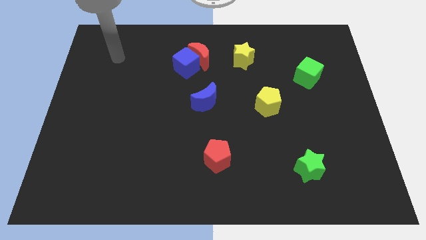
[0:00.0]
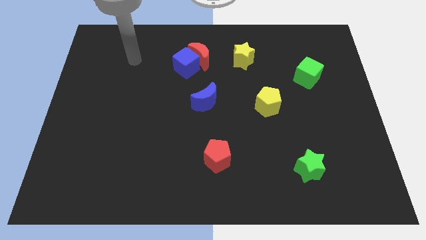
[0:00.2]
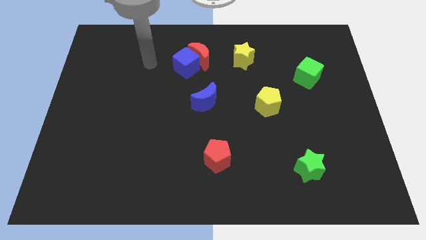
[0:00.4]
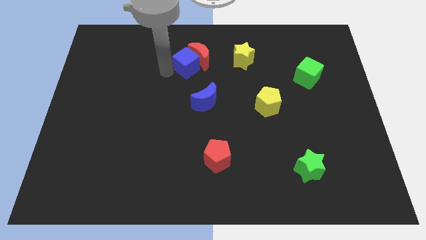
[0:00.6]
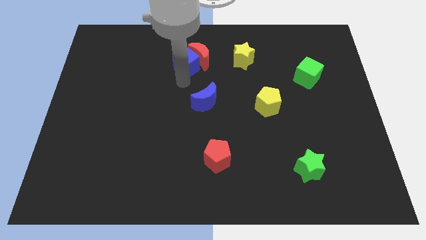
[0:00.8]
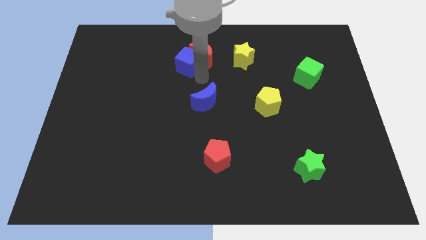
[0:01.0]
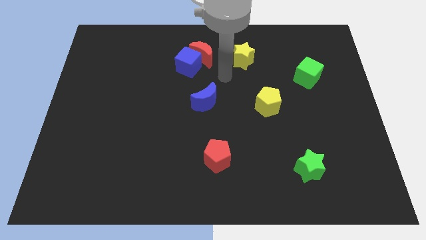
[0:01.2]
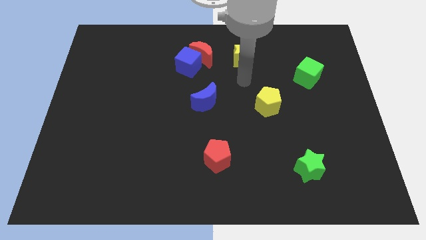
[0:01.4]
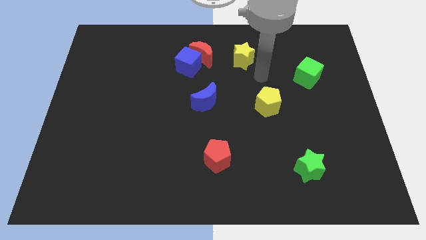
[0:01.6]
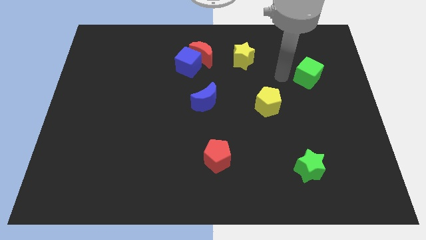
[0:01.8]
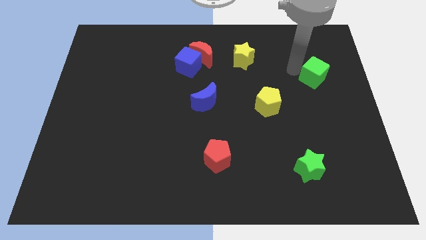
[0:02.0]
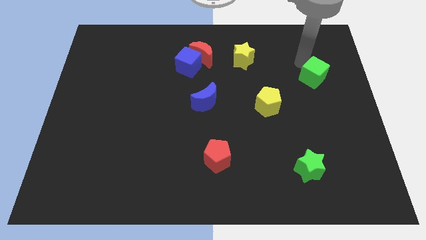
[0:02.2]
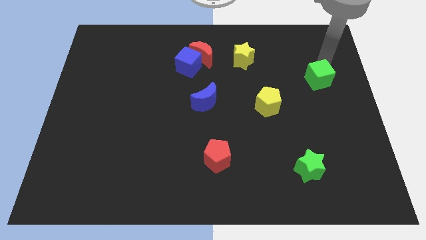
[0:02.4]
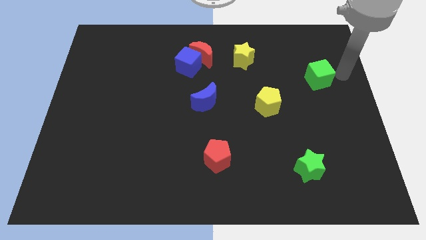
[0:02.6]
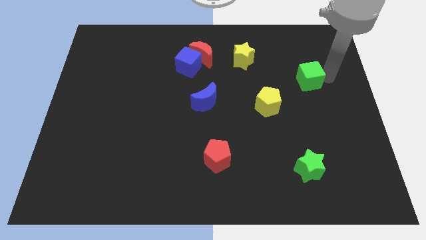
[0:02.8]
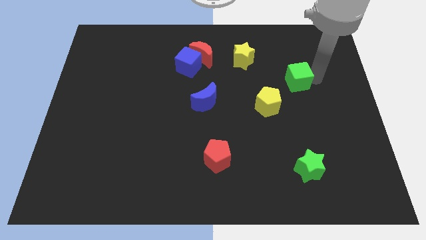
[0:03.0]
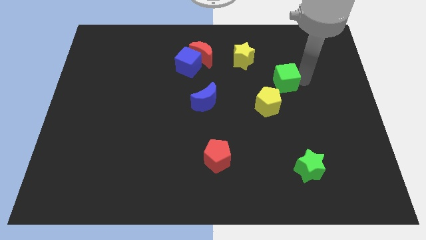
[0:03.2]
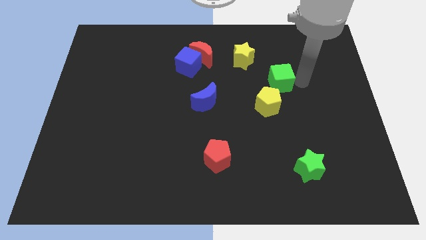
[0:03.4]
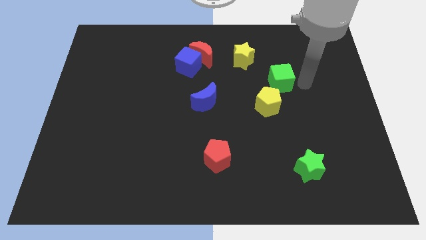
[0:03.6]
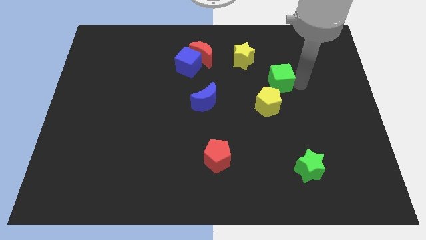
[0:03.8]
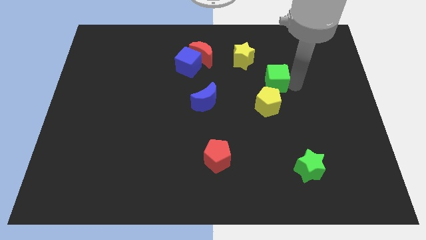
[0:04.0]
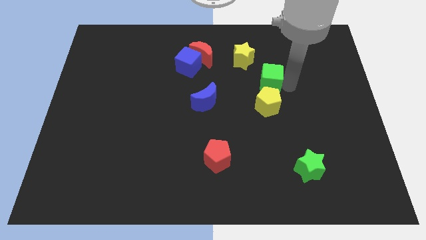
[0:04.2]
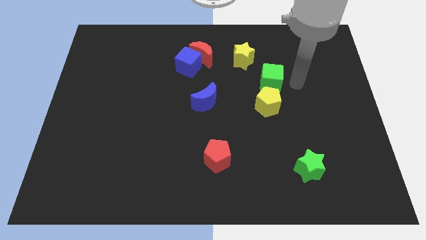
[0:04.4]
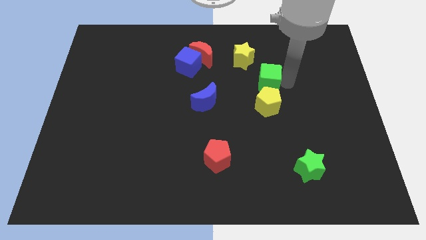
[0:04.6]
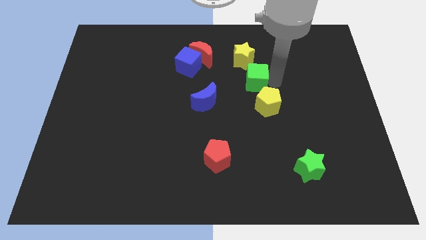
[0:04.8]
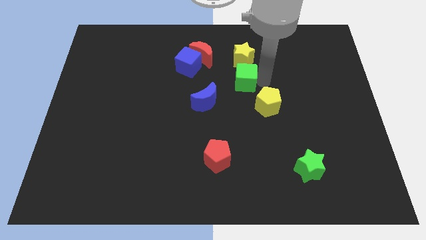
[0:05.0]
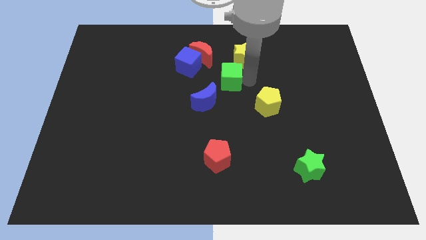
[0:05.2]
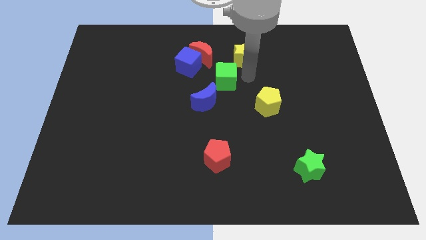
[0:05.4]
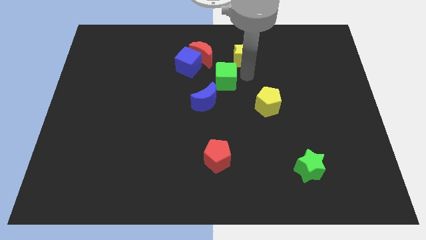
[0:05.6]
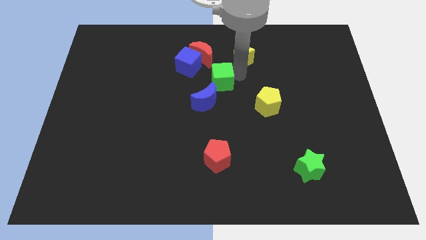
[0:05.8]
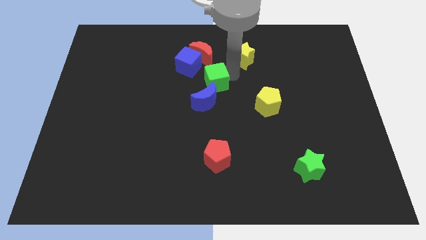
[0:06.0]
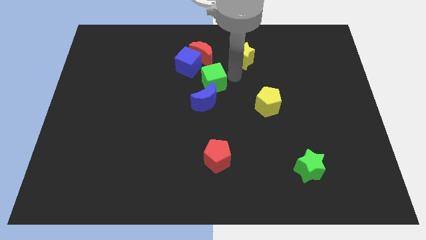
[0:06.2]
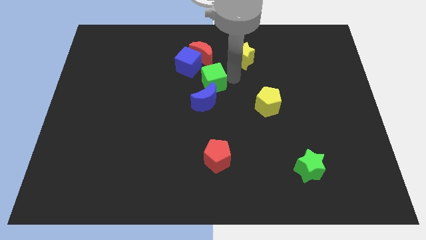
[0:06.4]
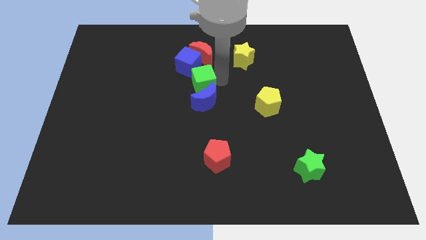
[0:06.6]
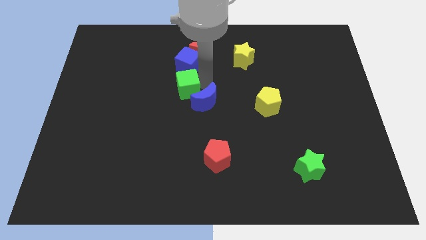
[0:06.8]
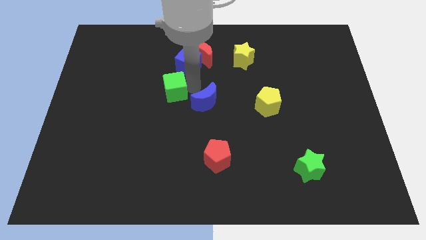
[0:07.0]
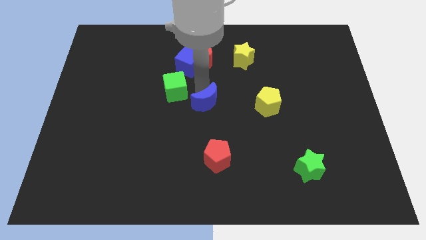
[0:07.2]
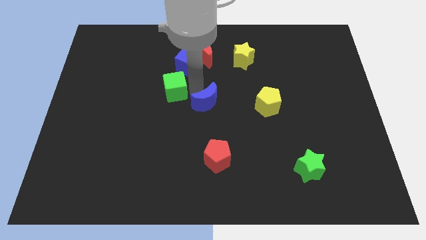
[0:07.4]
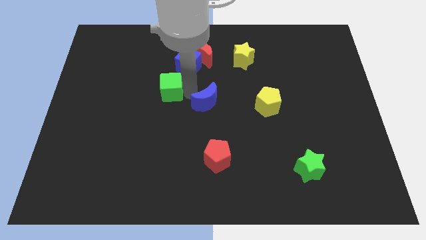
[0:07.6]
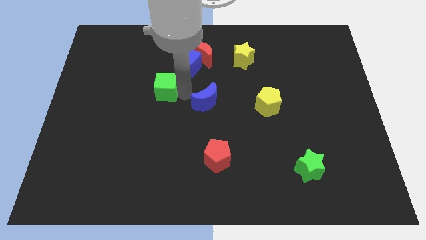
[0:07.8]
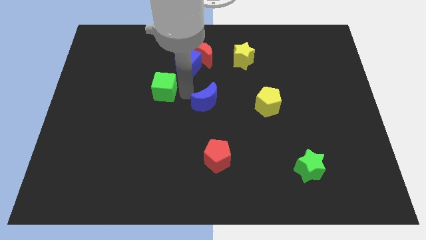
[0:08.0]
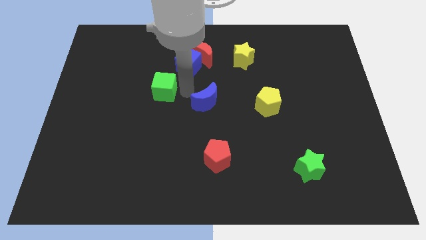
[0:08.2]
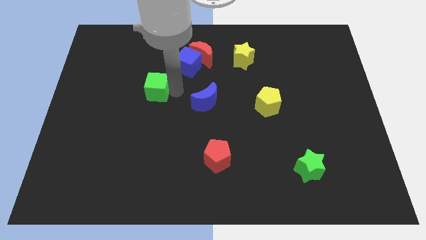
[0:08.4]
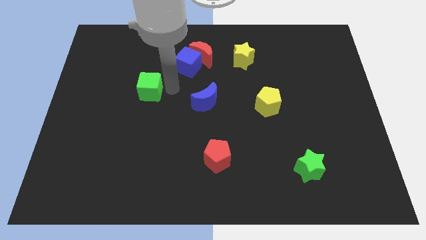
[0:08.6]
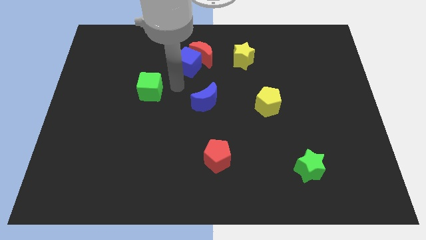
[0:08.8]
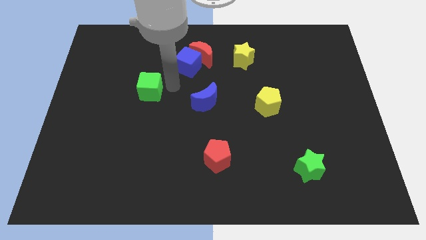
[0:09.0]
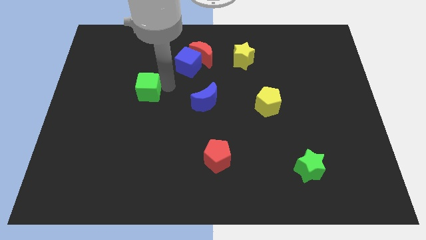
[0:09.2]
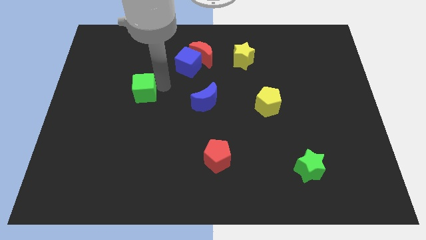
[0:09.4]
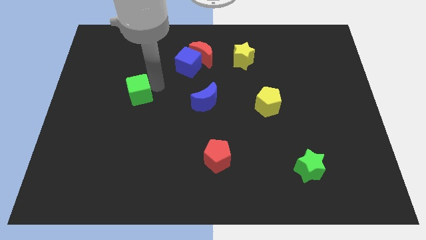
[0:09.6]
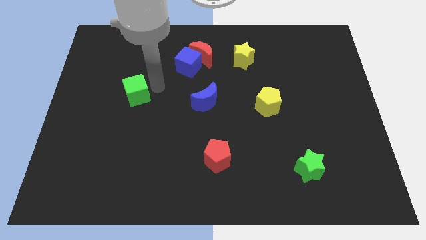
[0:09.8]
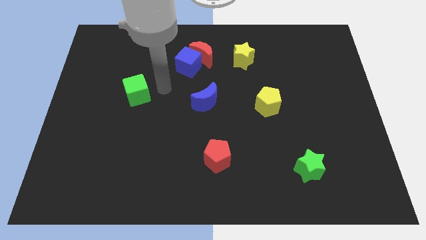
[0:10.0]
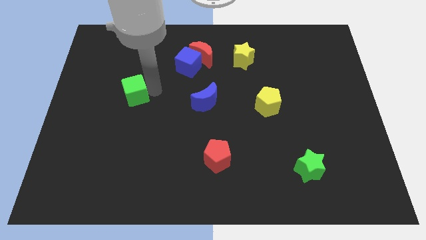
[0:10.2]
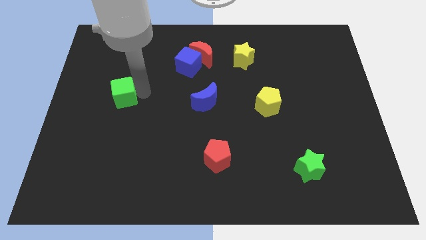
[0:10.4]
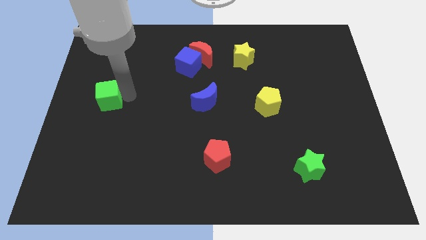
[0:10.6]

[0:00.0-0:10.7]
push the green cube to the left side of the board

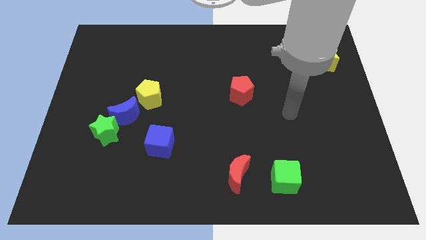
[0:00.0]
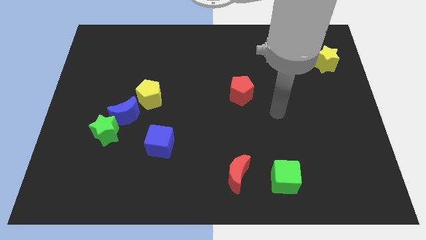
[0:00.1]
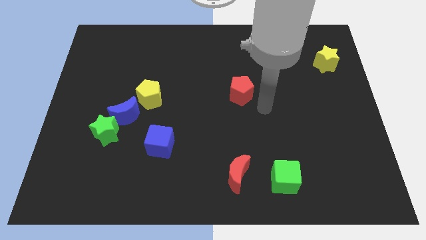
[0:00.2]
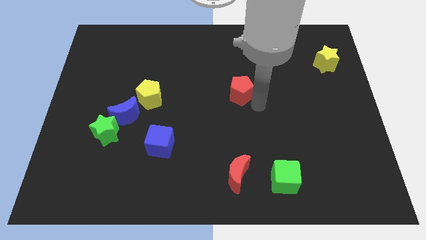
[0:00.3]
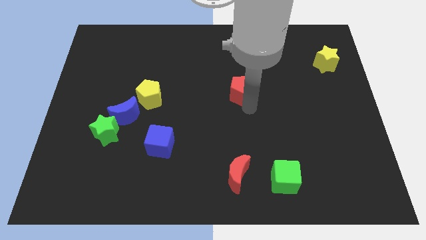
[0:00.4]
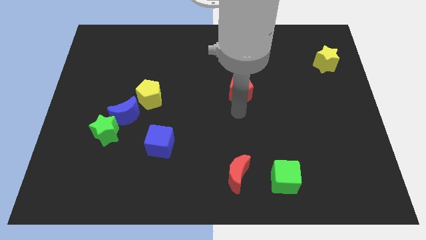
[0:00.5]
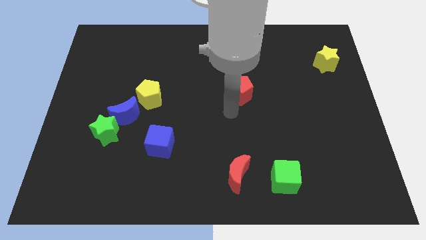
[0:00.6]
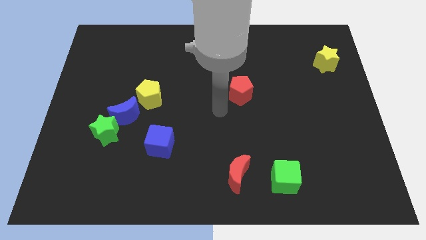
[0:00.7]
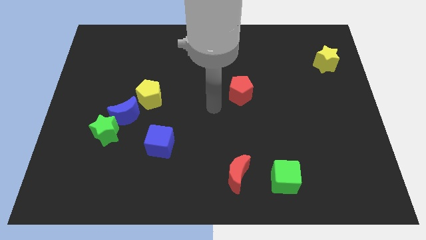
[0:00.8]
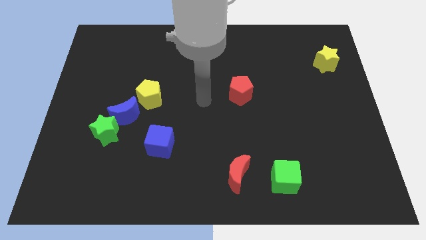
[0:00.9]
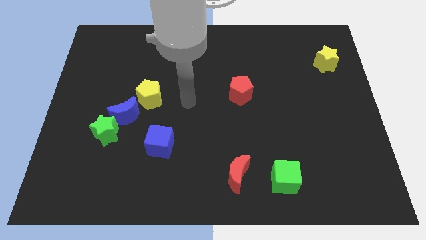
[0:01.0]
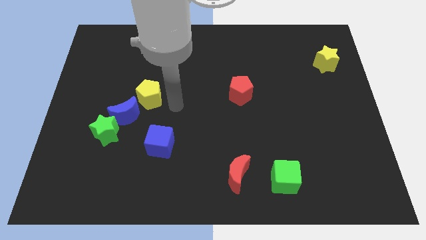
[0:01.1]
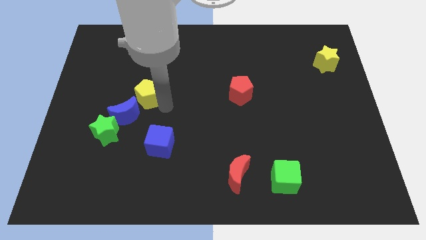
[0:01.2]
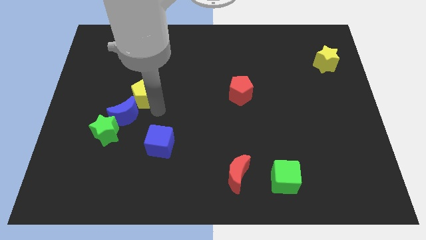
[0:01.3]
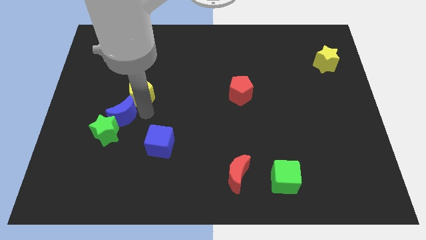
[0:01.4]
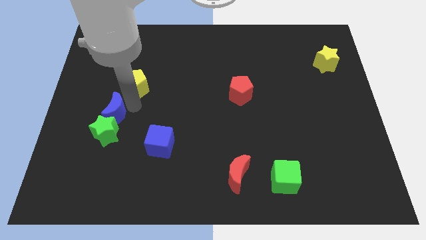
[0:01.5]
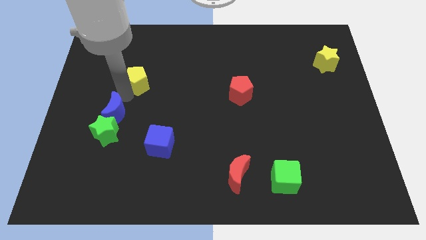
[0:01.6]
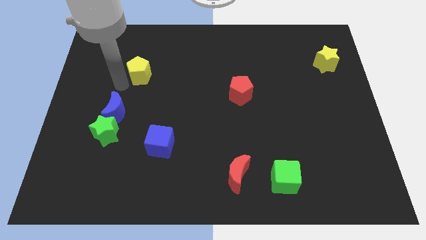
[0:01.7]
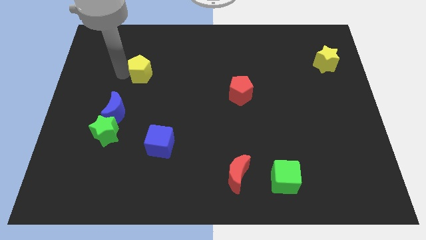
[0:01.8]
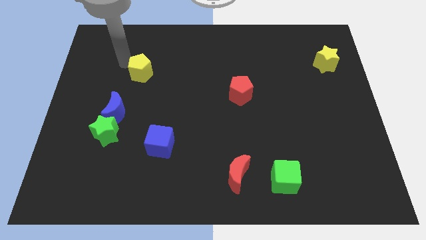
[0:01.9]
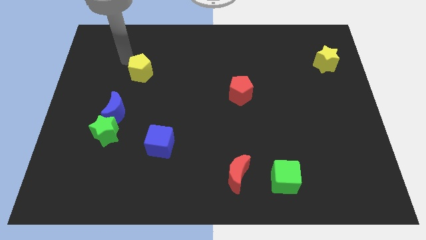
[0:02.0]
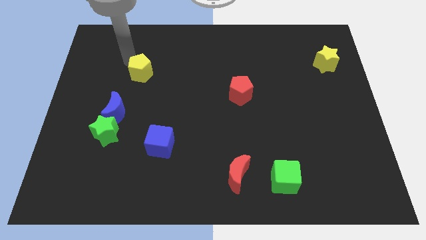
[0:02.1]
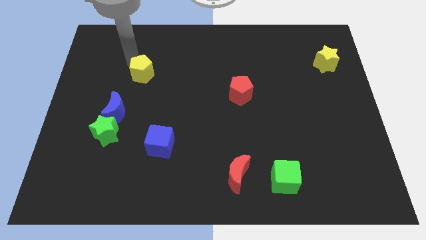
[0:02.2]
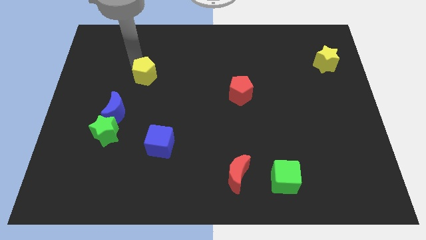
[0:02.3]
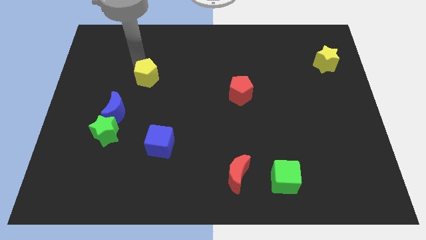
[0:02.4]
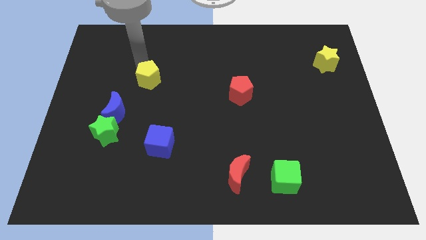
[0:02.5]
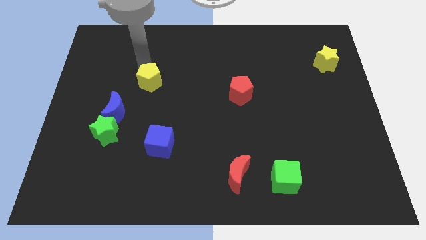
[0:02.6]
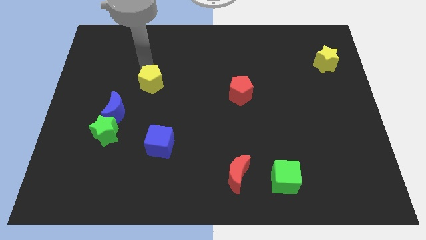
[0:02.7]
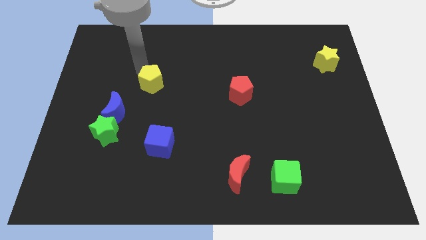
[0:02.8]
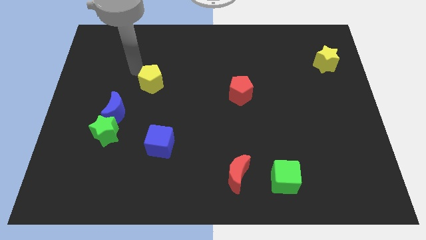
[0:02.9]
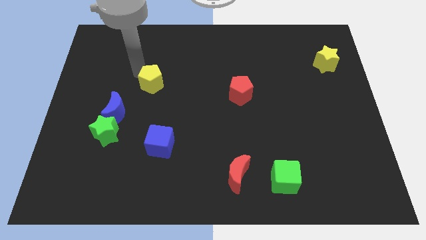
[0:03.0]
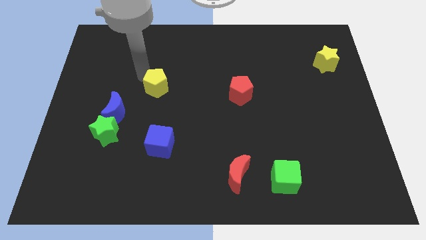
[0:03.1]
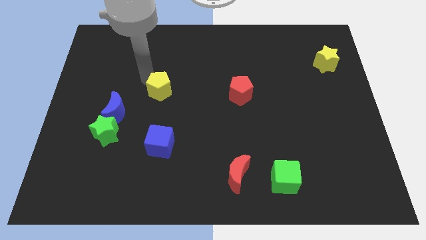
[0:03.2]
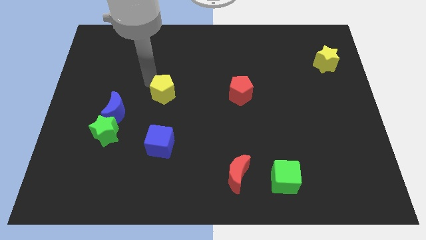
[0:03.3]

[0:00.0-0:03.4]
move the yellow pentagon to the middle of the board
